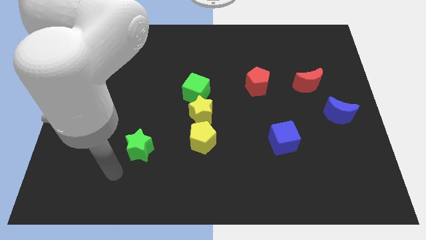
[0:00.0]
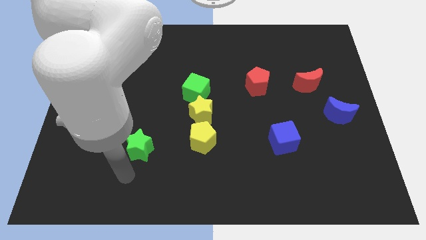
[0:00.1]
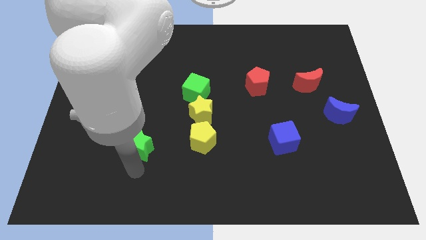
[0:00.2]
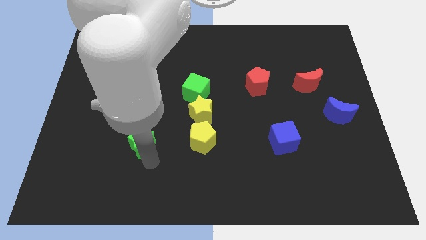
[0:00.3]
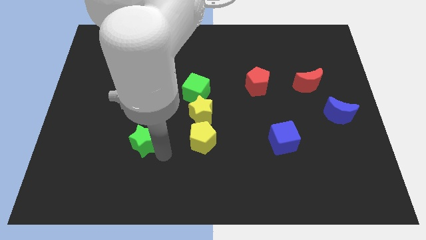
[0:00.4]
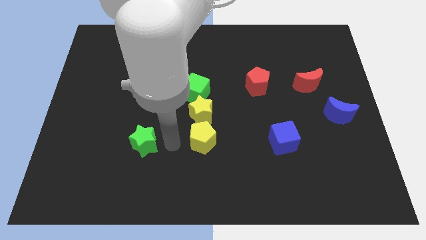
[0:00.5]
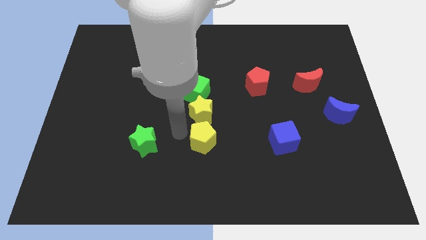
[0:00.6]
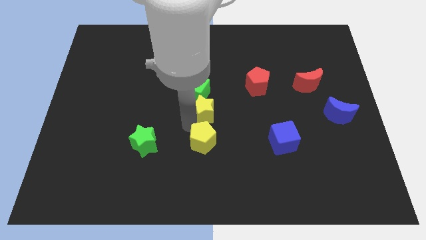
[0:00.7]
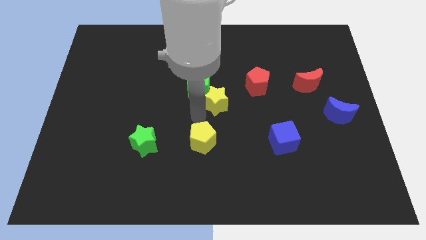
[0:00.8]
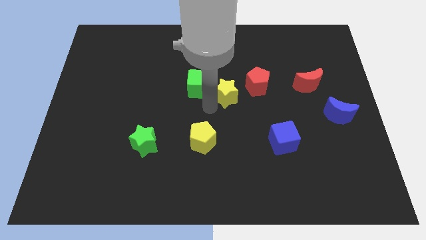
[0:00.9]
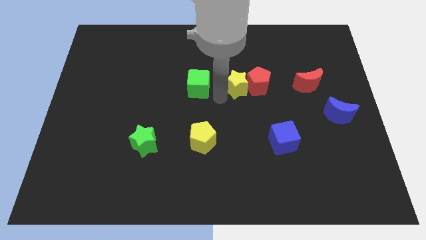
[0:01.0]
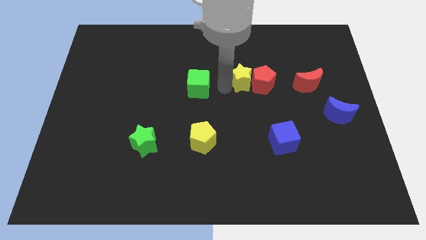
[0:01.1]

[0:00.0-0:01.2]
separate the green cube from the yellow star

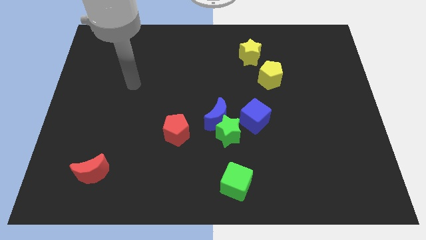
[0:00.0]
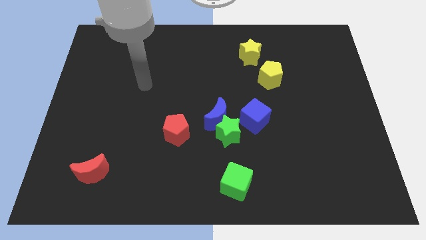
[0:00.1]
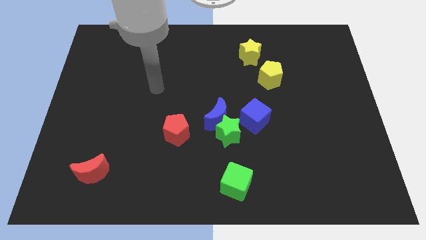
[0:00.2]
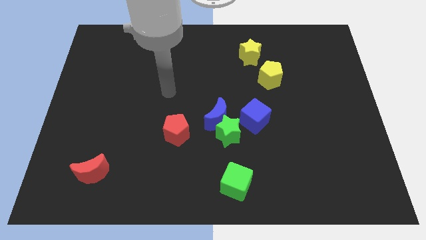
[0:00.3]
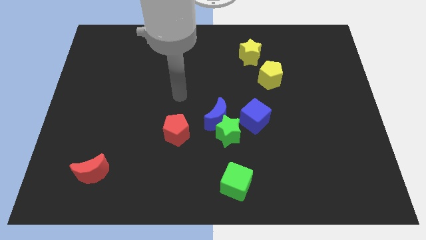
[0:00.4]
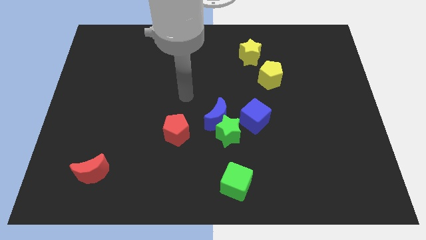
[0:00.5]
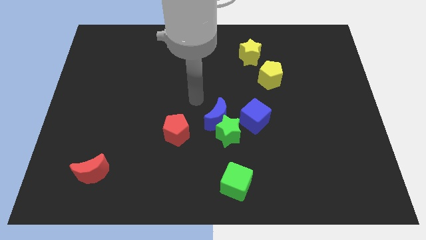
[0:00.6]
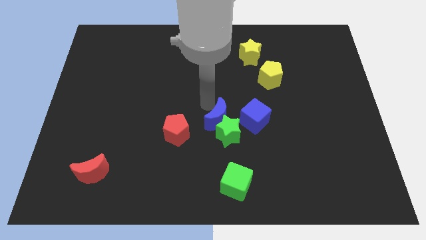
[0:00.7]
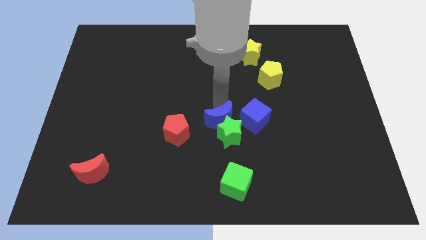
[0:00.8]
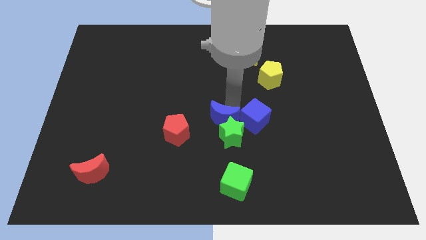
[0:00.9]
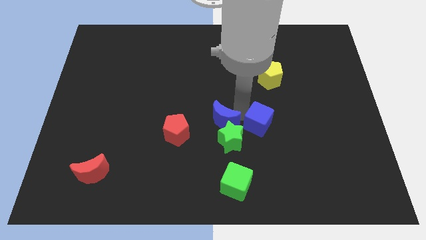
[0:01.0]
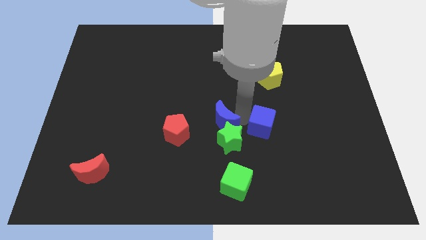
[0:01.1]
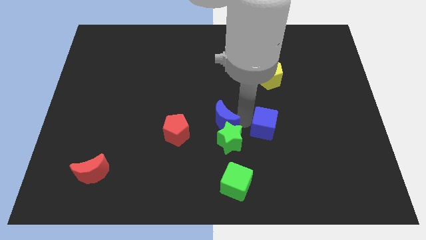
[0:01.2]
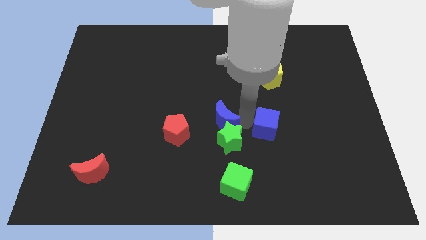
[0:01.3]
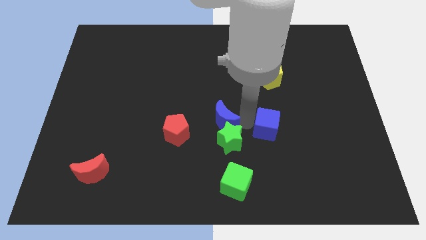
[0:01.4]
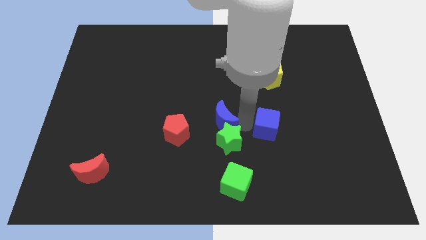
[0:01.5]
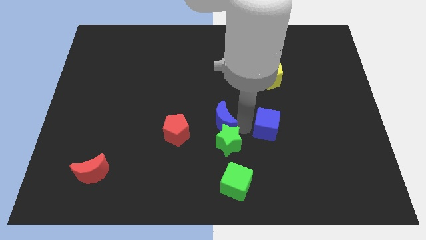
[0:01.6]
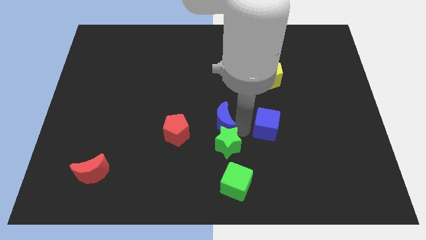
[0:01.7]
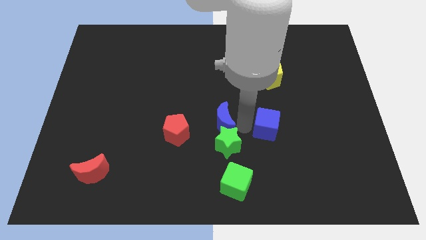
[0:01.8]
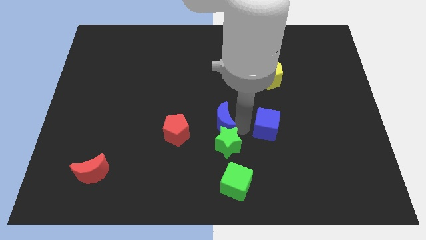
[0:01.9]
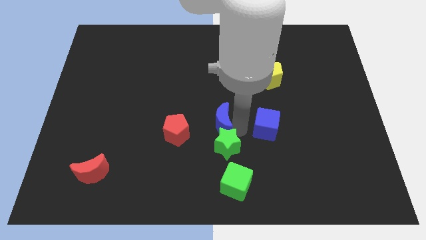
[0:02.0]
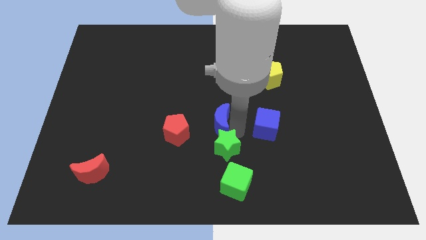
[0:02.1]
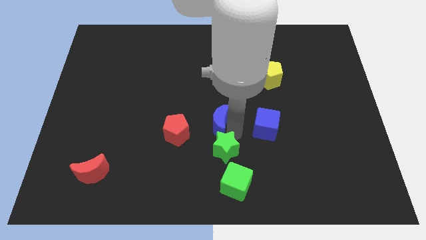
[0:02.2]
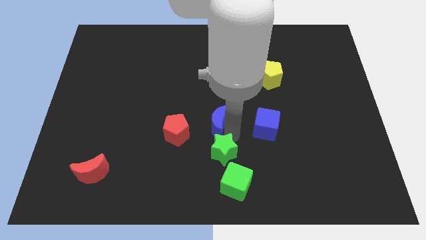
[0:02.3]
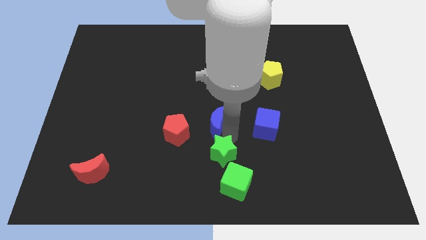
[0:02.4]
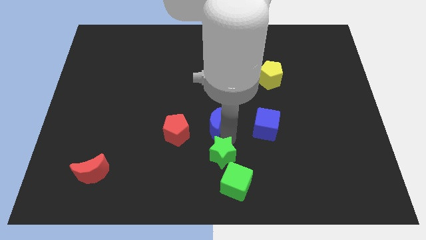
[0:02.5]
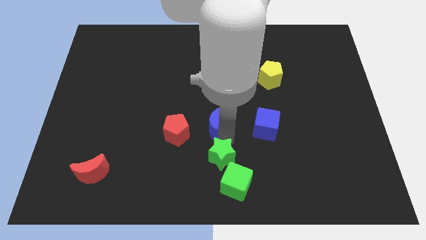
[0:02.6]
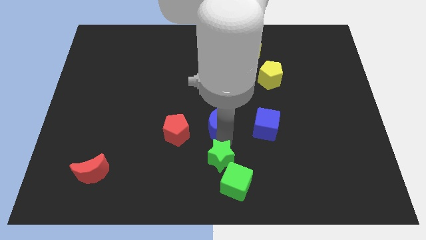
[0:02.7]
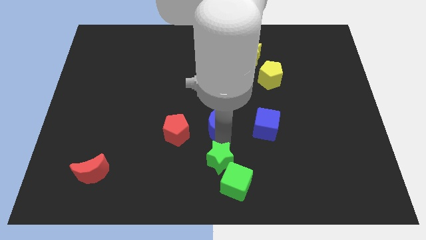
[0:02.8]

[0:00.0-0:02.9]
pull the green star apart from the blue moon and blue cube

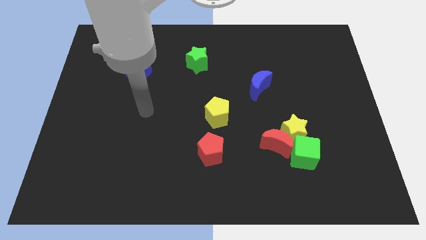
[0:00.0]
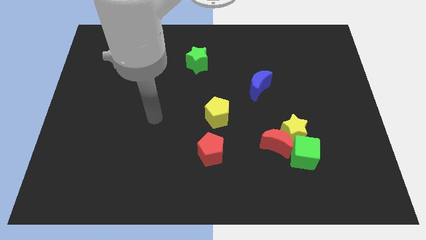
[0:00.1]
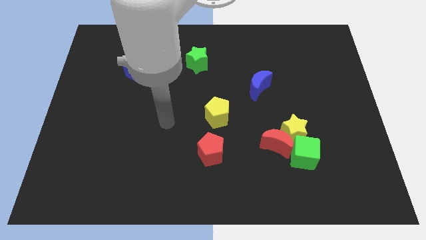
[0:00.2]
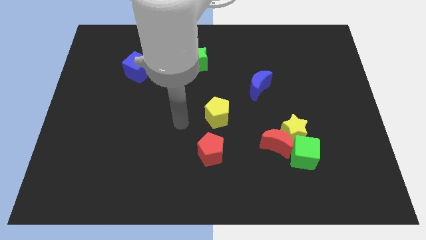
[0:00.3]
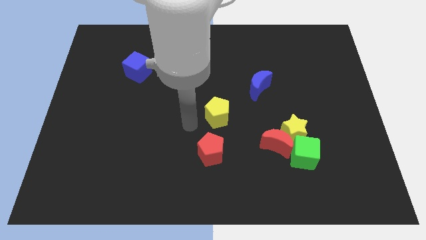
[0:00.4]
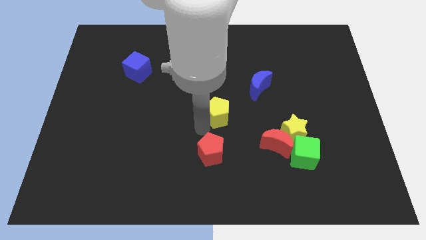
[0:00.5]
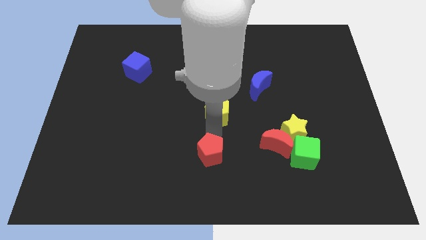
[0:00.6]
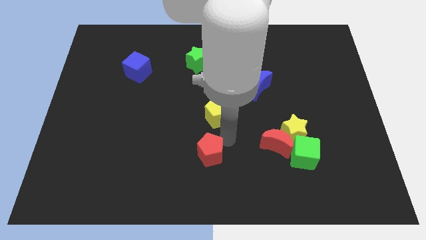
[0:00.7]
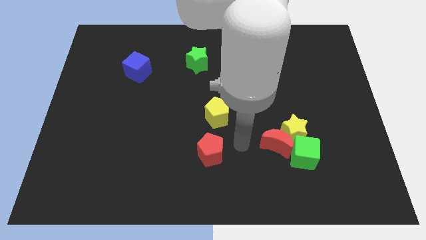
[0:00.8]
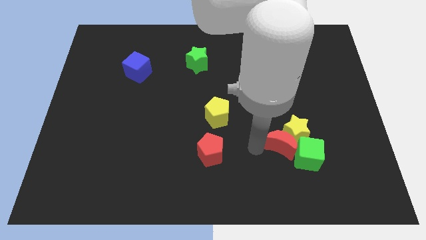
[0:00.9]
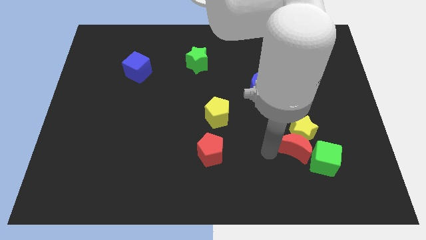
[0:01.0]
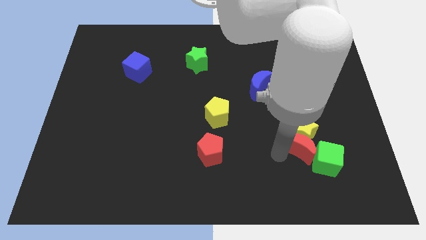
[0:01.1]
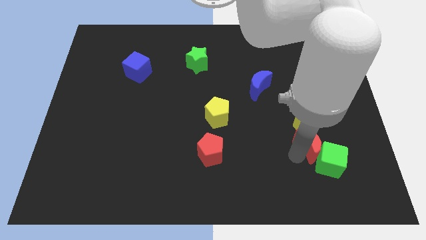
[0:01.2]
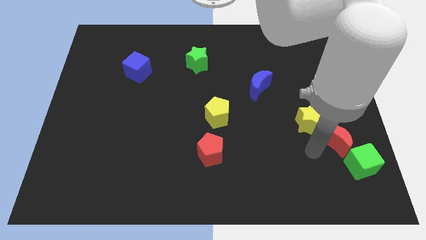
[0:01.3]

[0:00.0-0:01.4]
move the yellow star away from the red moon and green cube

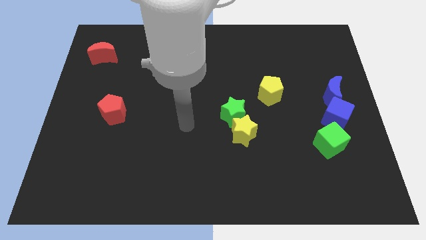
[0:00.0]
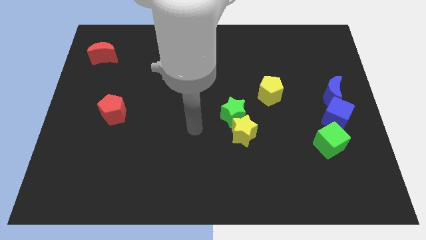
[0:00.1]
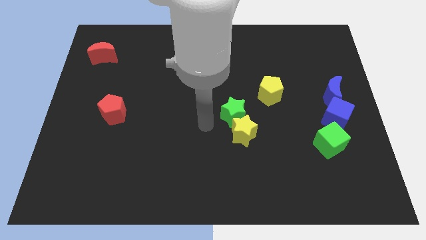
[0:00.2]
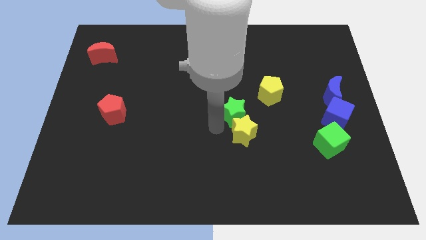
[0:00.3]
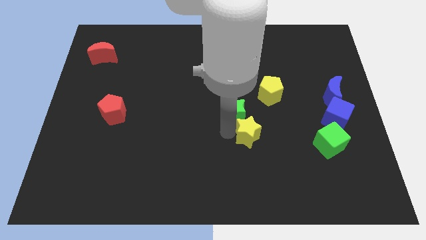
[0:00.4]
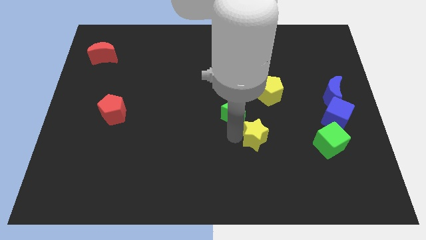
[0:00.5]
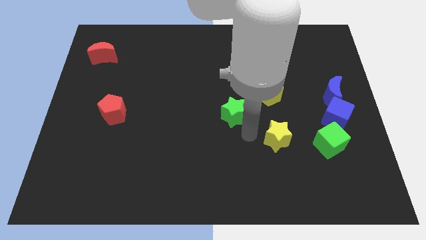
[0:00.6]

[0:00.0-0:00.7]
separate the green star from the yellow star

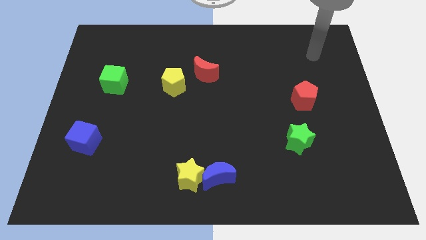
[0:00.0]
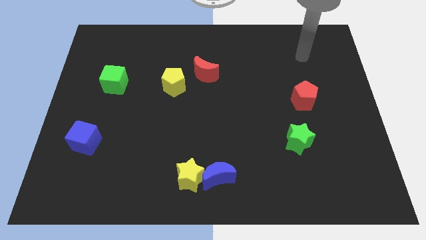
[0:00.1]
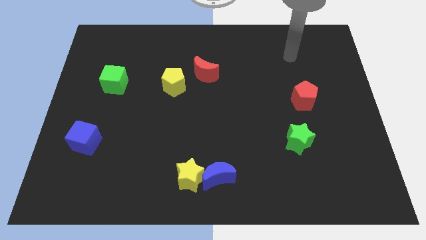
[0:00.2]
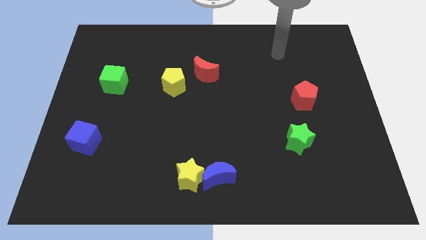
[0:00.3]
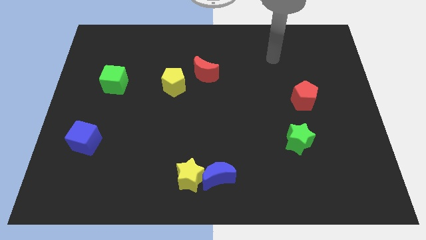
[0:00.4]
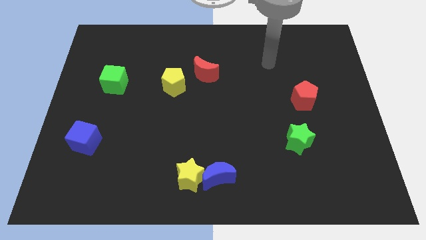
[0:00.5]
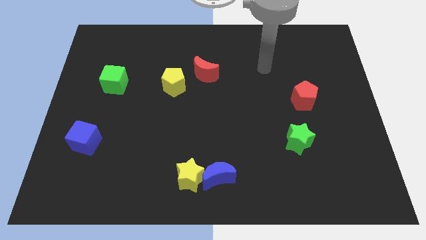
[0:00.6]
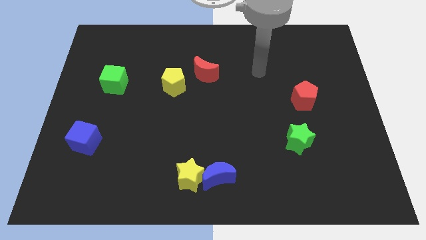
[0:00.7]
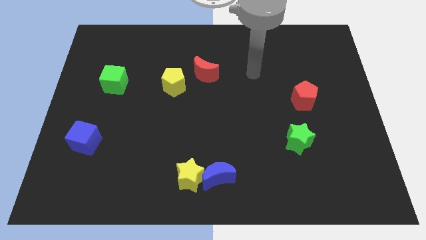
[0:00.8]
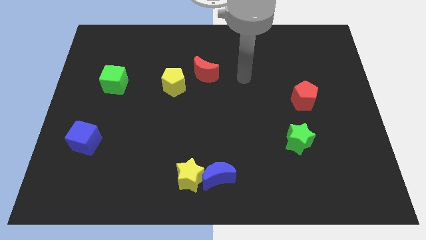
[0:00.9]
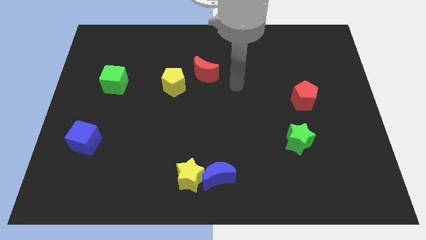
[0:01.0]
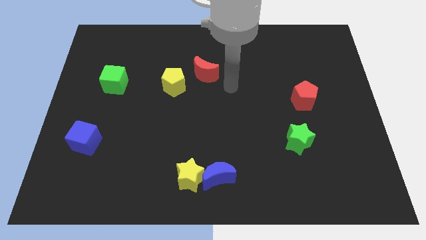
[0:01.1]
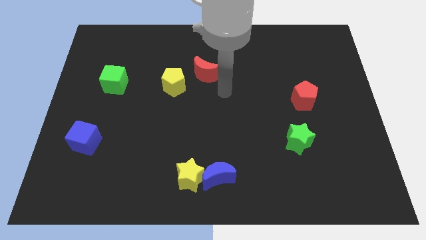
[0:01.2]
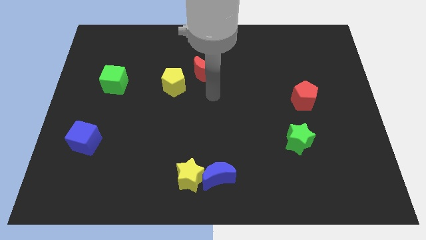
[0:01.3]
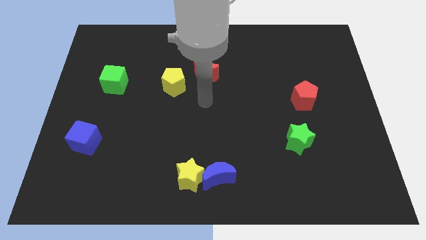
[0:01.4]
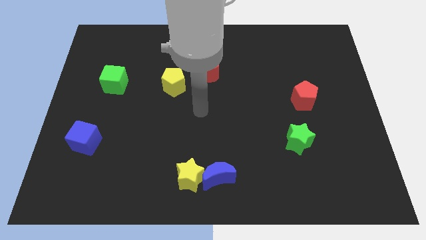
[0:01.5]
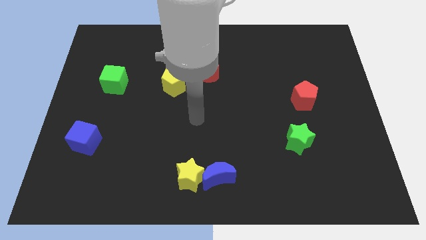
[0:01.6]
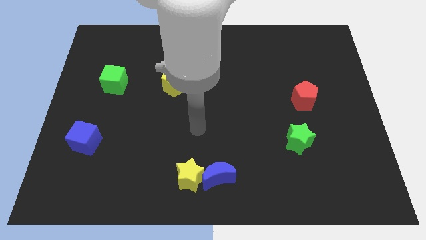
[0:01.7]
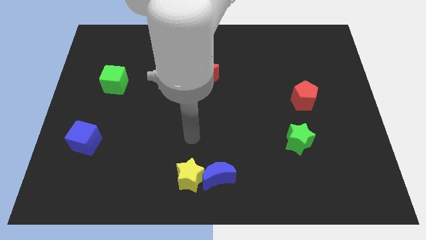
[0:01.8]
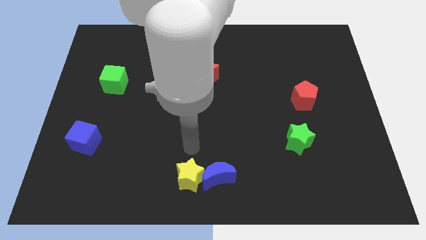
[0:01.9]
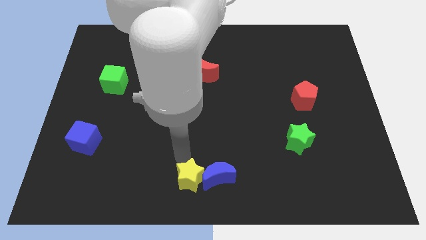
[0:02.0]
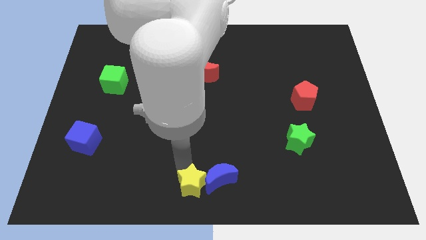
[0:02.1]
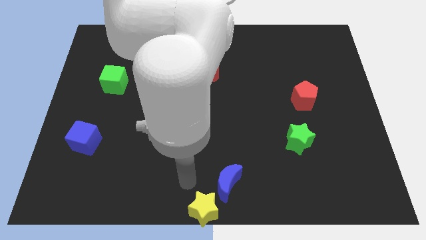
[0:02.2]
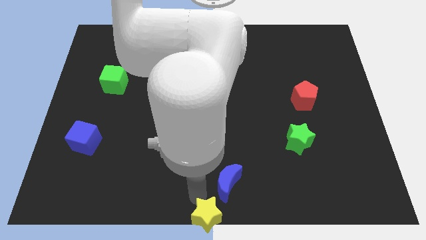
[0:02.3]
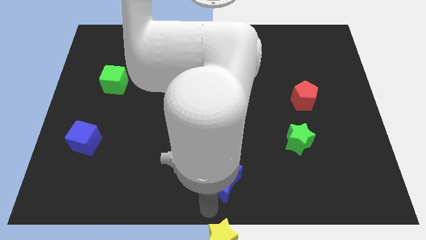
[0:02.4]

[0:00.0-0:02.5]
pull the blue moon apart from the yellow star

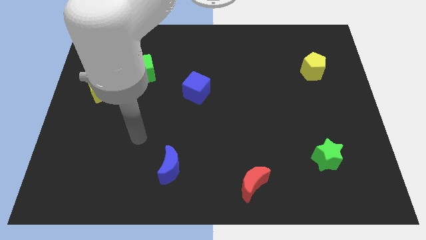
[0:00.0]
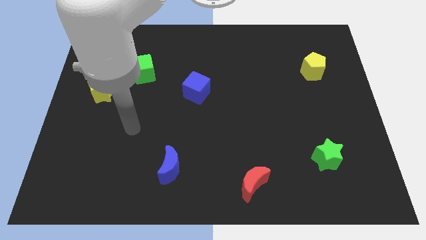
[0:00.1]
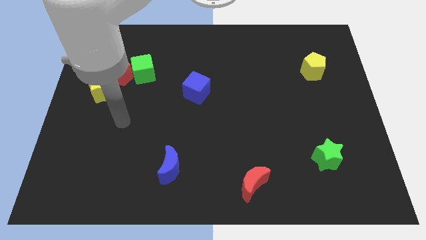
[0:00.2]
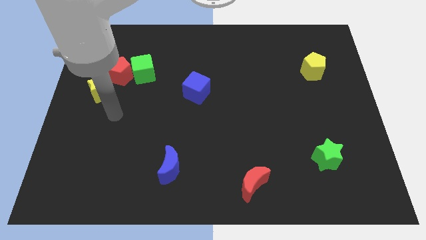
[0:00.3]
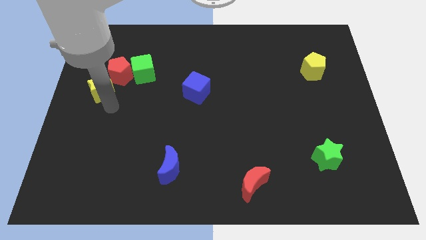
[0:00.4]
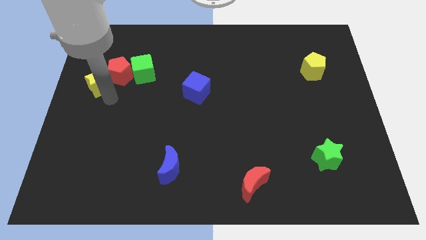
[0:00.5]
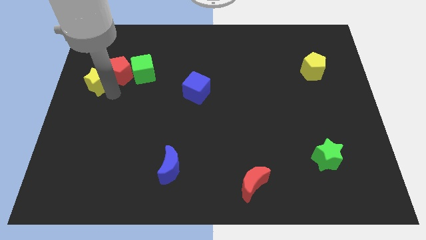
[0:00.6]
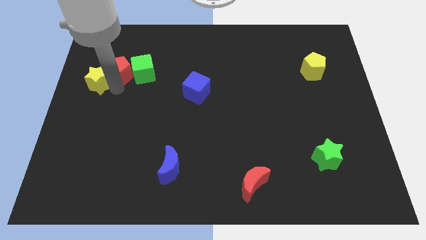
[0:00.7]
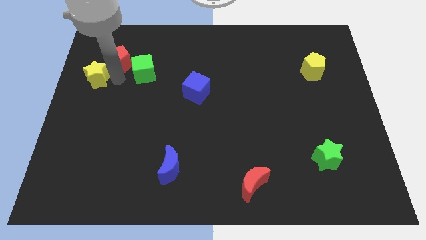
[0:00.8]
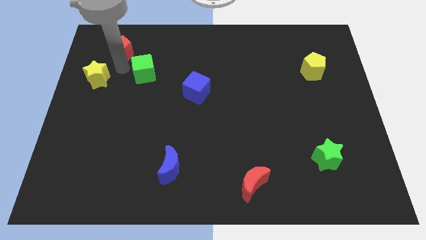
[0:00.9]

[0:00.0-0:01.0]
pull the green cube apart from the red pentagon
